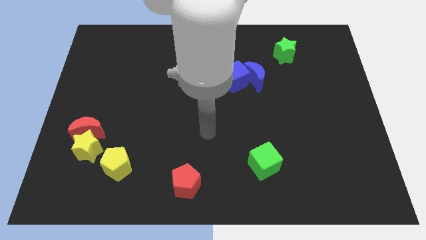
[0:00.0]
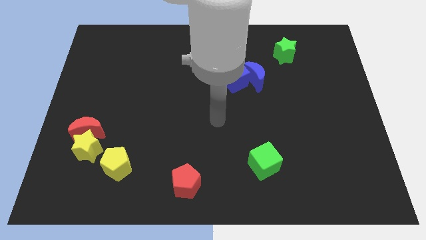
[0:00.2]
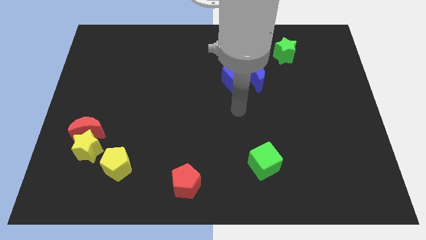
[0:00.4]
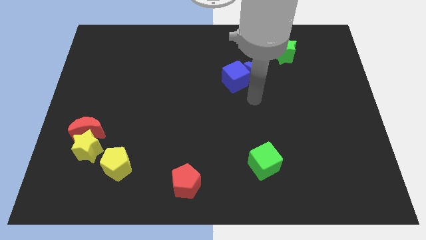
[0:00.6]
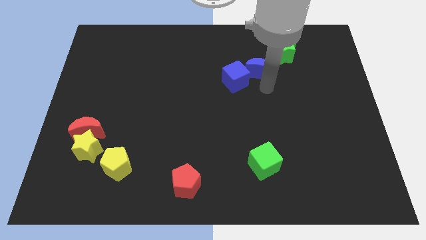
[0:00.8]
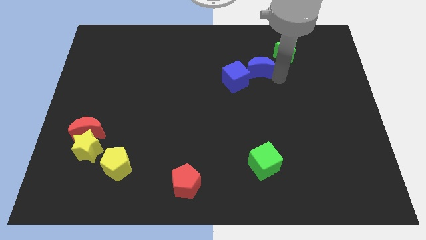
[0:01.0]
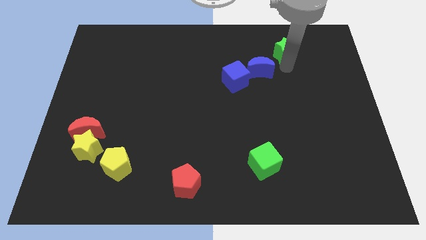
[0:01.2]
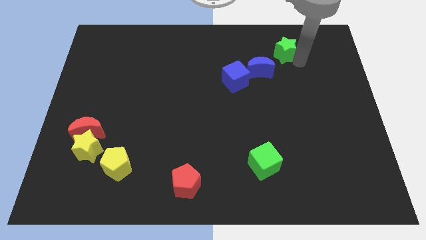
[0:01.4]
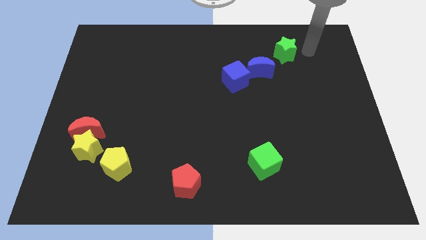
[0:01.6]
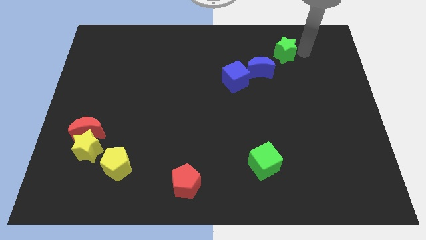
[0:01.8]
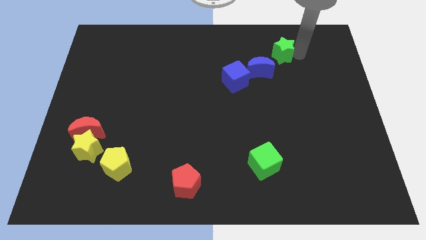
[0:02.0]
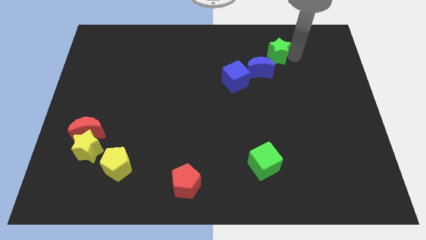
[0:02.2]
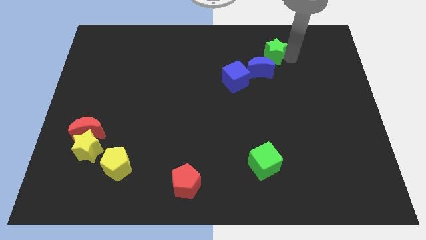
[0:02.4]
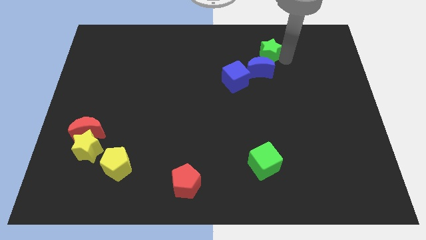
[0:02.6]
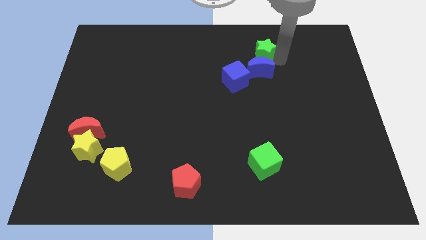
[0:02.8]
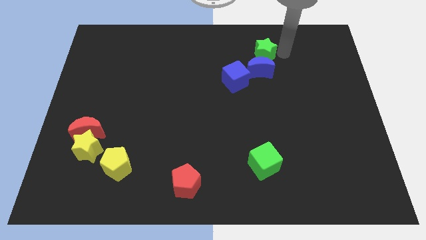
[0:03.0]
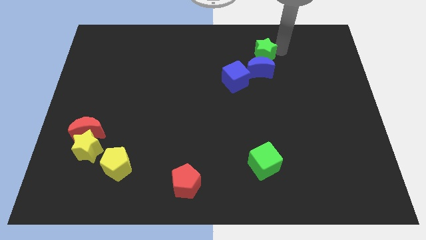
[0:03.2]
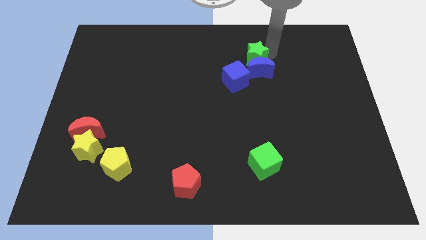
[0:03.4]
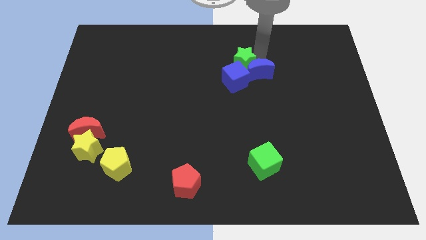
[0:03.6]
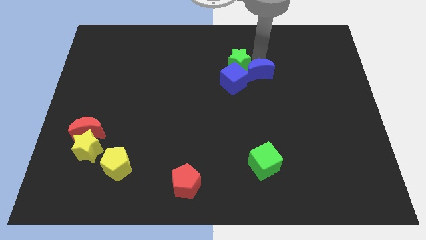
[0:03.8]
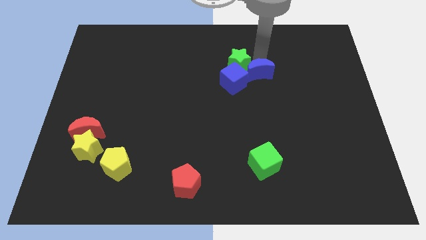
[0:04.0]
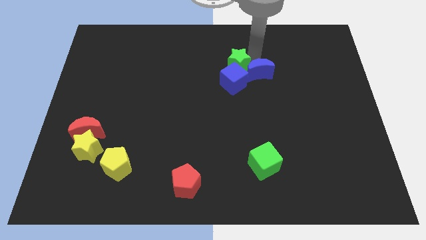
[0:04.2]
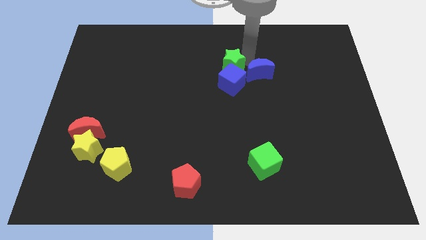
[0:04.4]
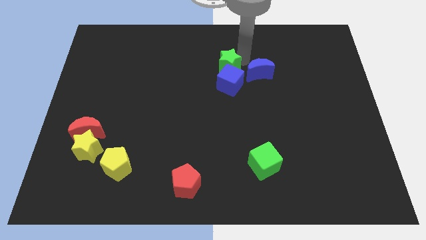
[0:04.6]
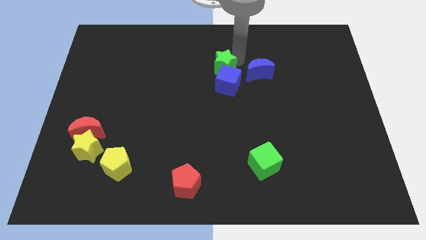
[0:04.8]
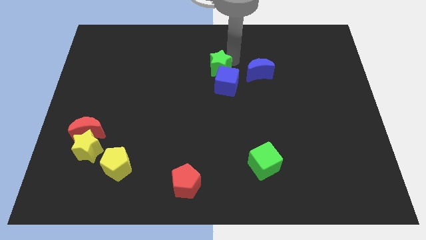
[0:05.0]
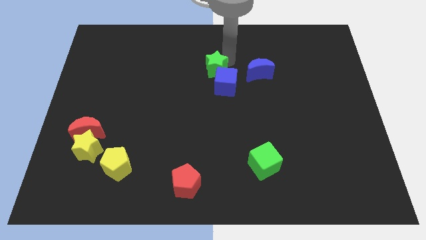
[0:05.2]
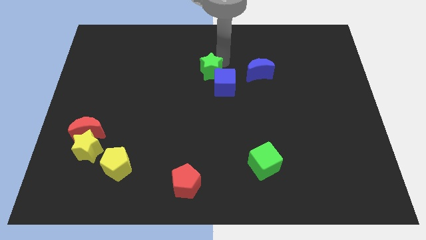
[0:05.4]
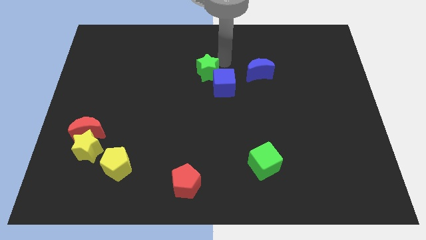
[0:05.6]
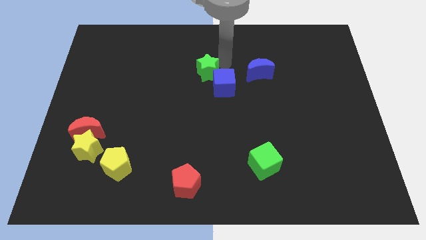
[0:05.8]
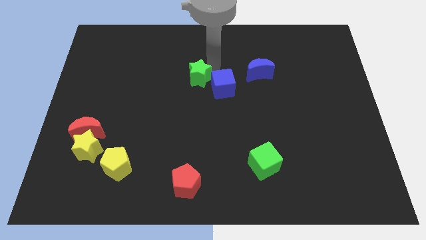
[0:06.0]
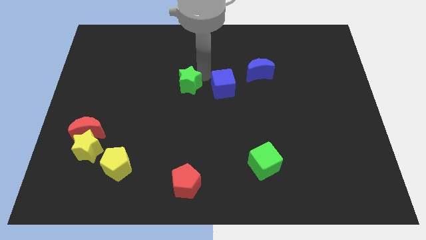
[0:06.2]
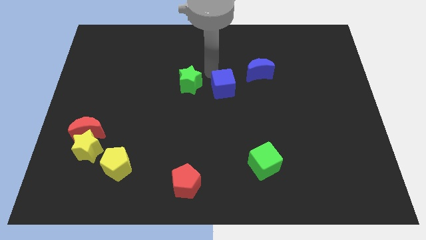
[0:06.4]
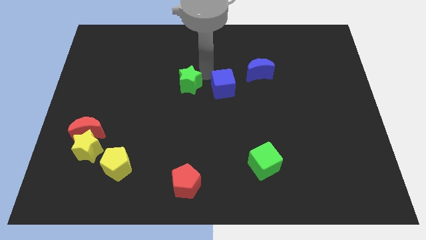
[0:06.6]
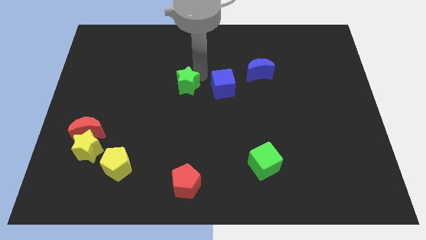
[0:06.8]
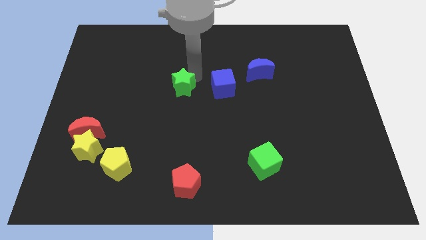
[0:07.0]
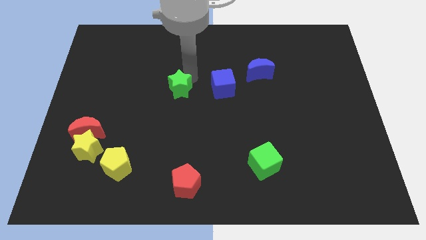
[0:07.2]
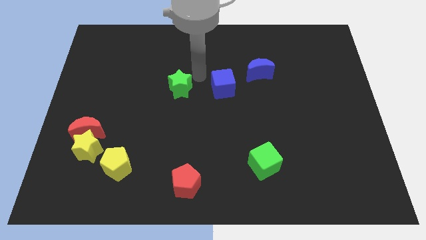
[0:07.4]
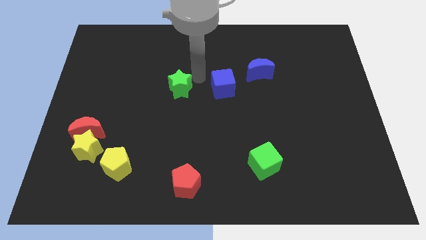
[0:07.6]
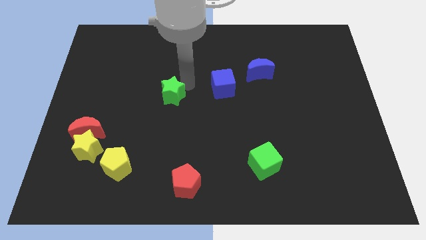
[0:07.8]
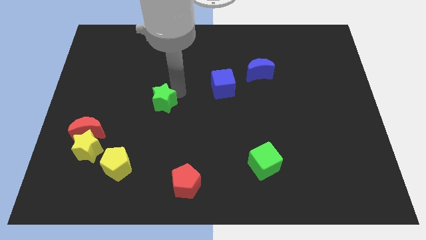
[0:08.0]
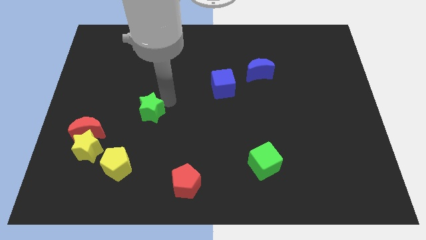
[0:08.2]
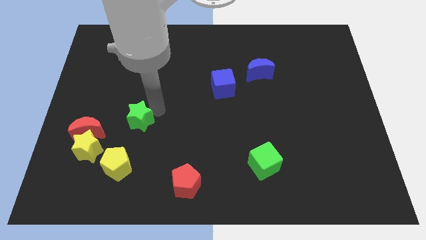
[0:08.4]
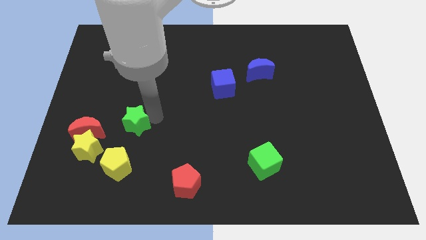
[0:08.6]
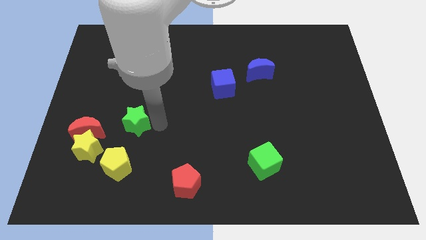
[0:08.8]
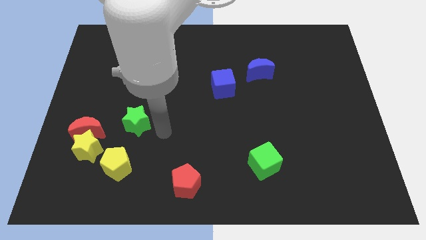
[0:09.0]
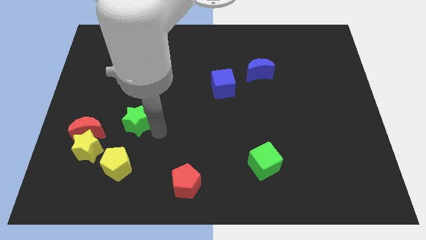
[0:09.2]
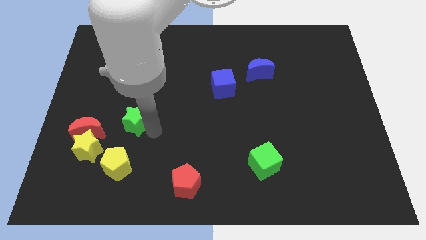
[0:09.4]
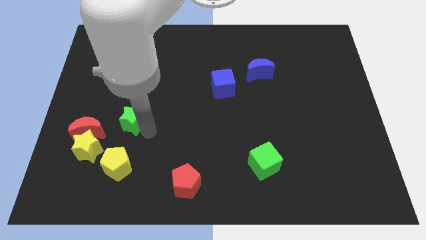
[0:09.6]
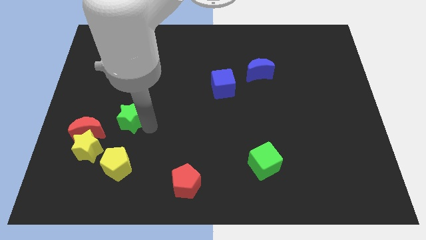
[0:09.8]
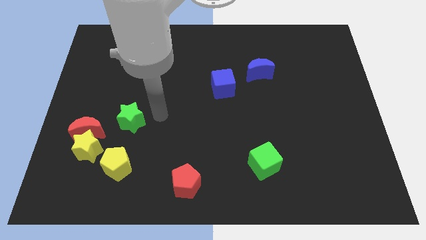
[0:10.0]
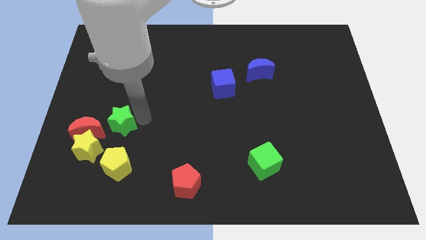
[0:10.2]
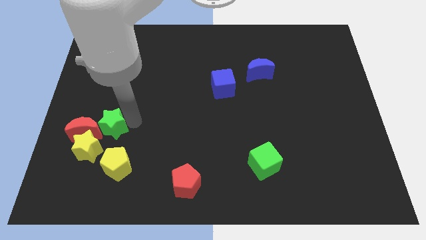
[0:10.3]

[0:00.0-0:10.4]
move the green star towards the red moon
